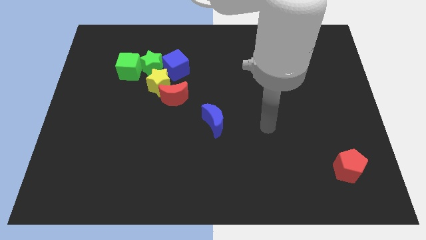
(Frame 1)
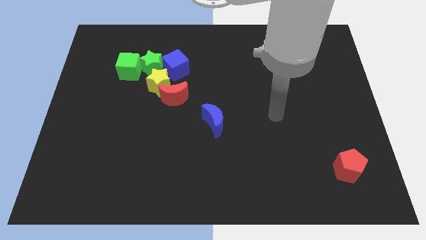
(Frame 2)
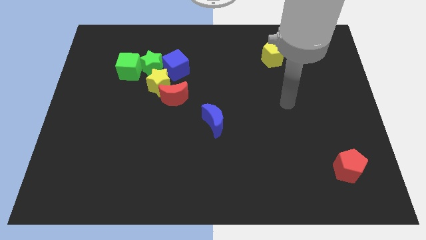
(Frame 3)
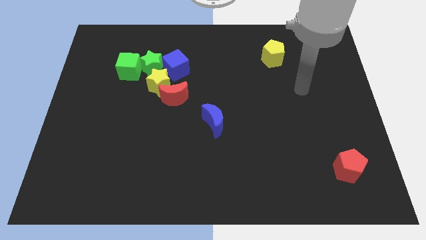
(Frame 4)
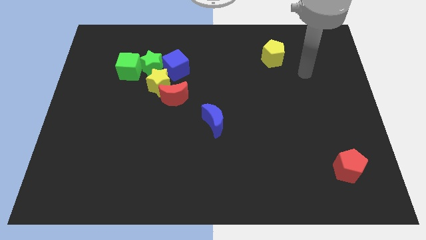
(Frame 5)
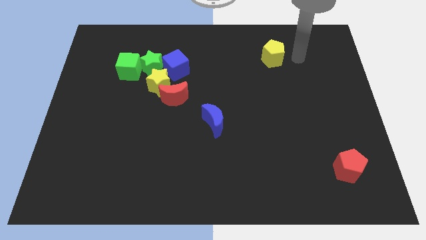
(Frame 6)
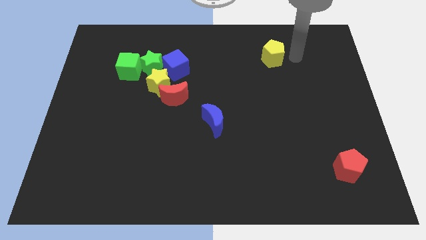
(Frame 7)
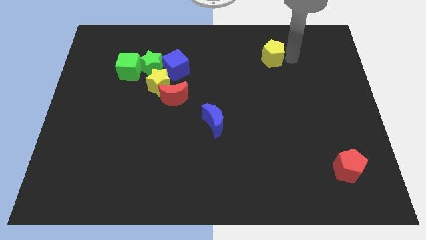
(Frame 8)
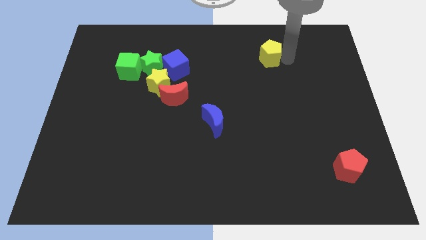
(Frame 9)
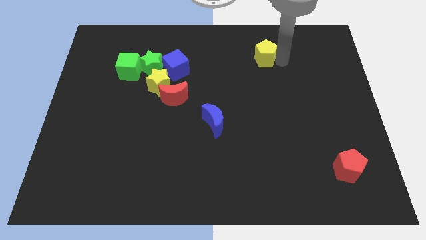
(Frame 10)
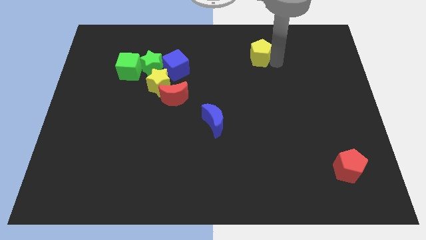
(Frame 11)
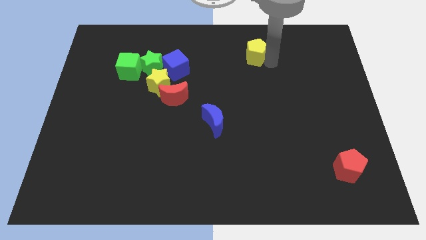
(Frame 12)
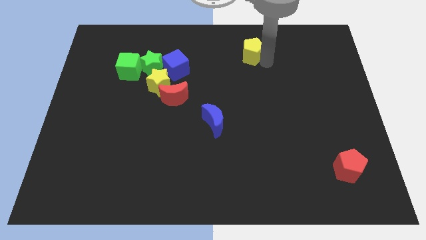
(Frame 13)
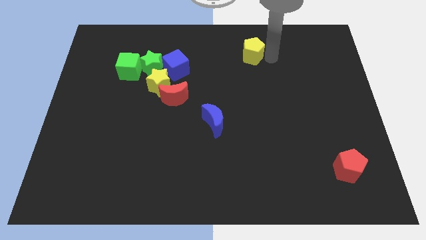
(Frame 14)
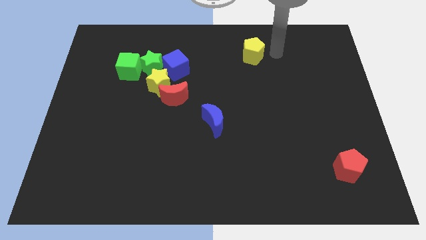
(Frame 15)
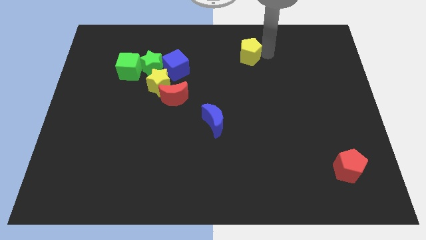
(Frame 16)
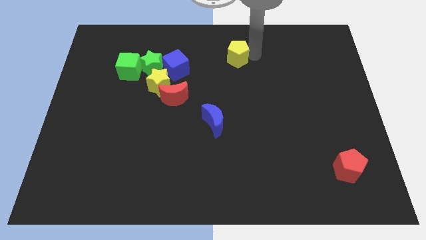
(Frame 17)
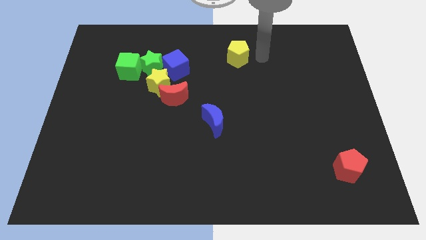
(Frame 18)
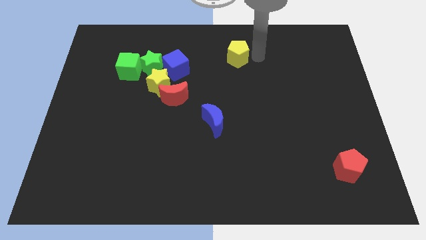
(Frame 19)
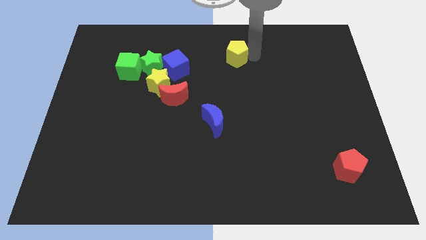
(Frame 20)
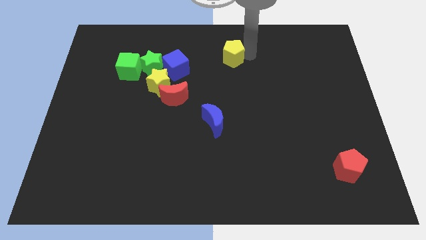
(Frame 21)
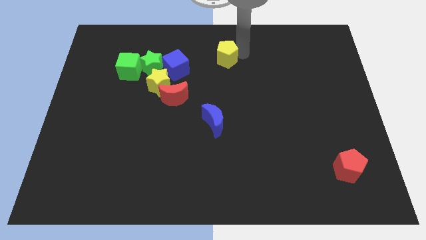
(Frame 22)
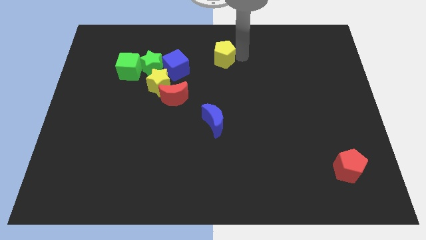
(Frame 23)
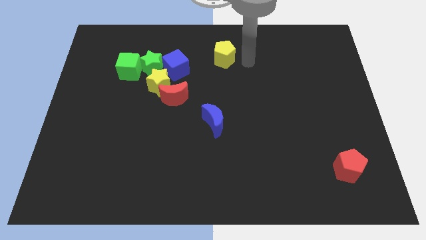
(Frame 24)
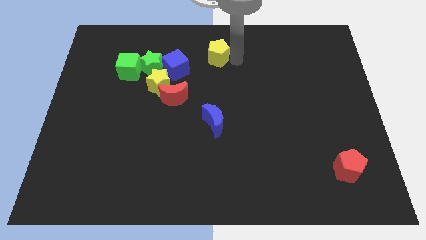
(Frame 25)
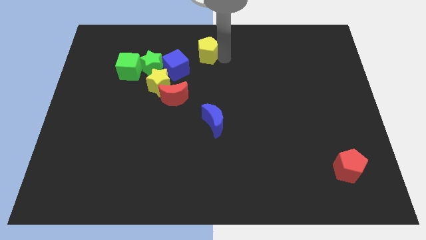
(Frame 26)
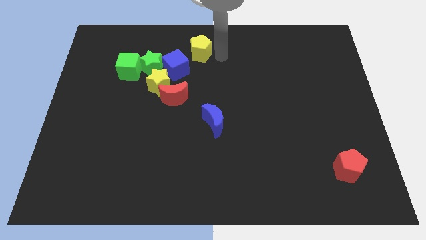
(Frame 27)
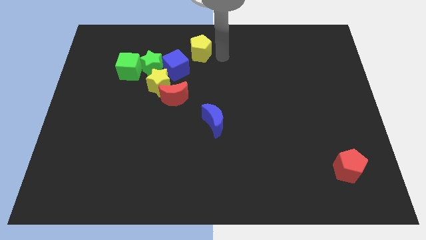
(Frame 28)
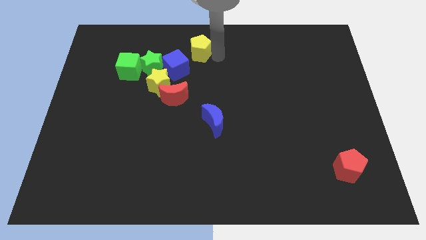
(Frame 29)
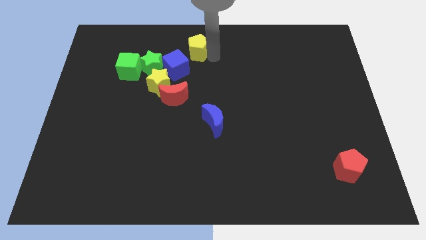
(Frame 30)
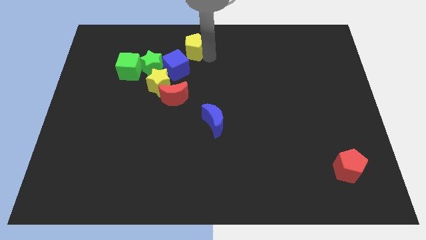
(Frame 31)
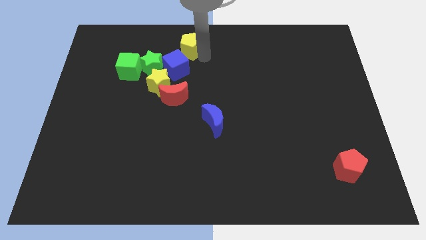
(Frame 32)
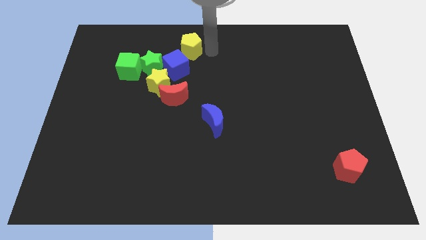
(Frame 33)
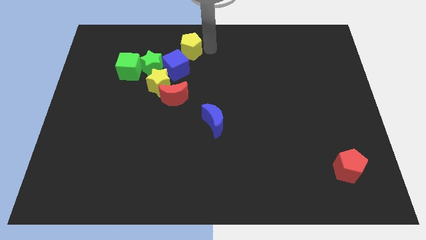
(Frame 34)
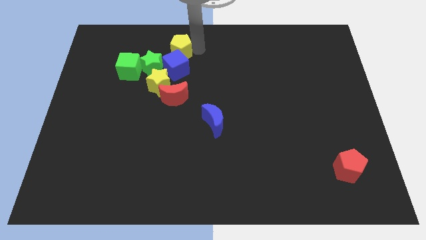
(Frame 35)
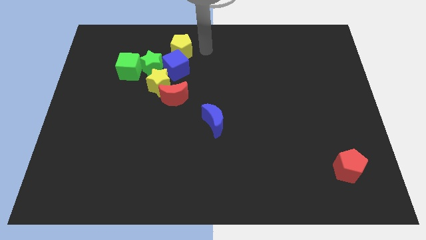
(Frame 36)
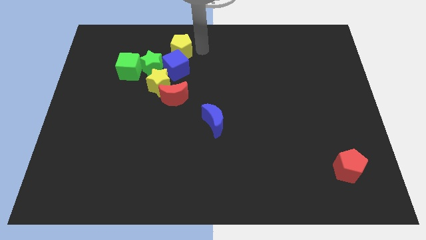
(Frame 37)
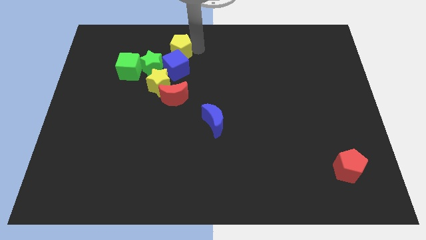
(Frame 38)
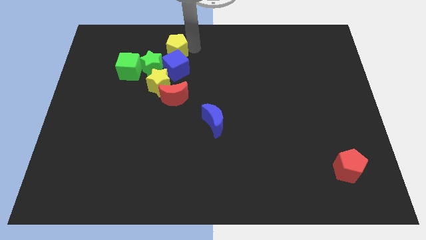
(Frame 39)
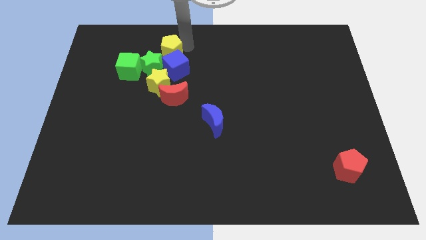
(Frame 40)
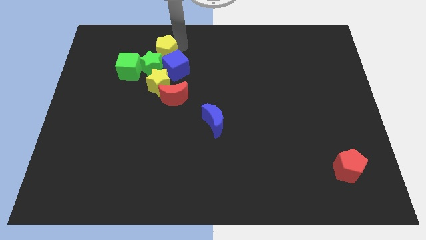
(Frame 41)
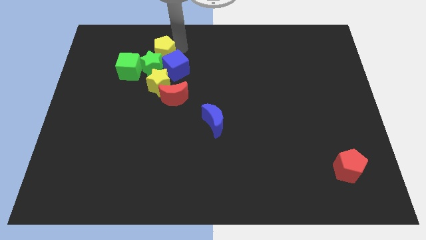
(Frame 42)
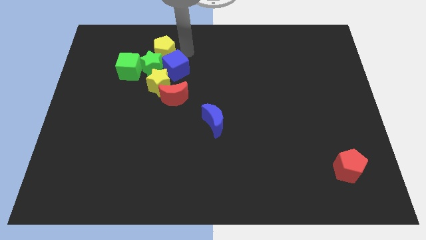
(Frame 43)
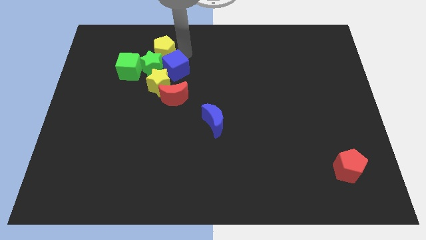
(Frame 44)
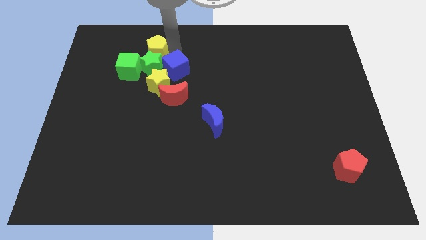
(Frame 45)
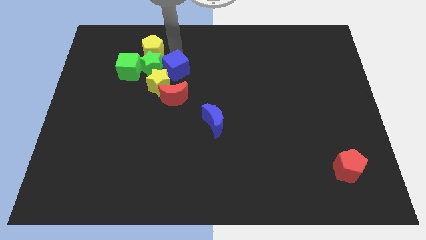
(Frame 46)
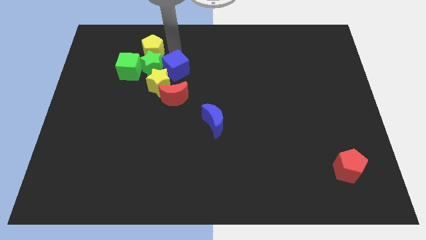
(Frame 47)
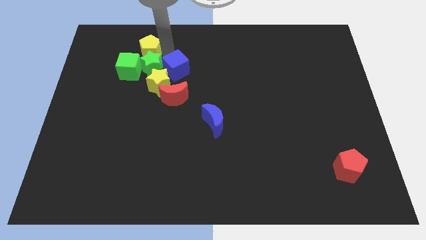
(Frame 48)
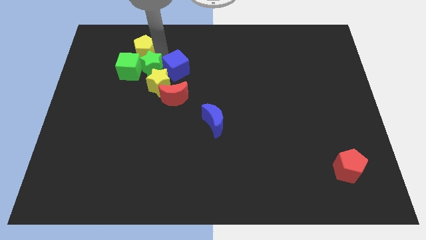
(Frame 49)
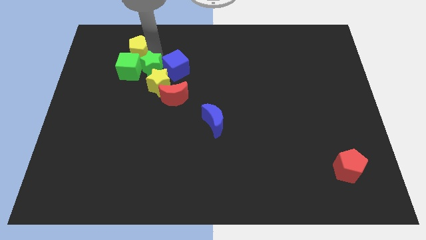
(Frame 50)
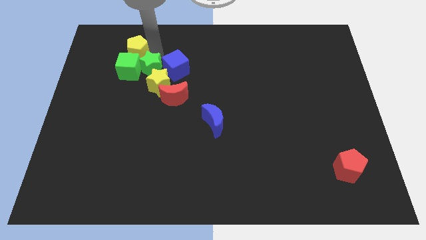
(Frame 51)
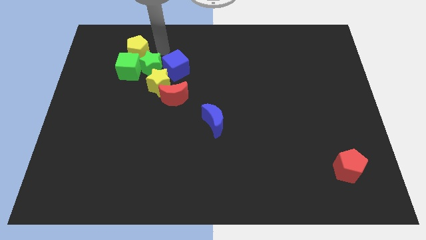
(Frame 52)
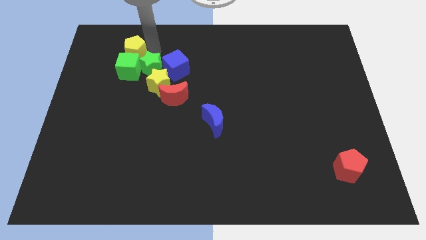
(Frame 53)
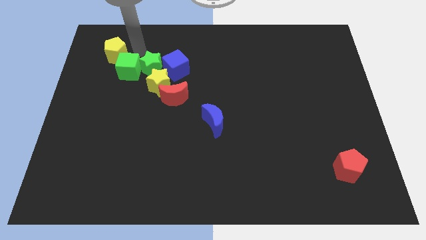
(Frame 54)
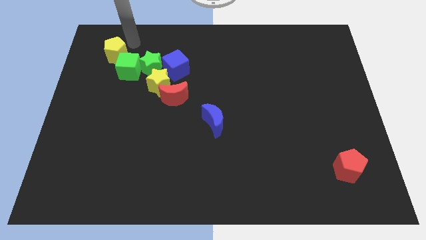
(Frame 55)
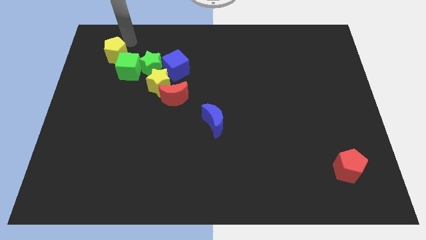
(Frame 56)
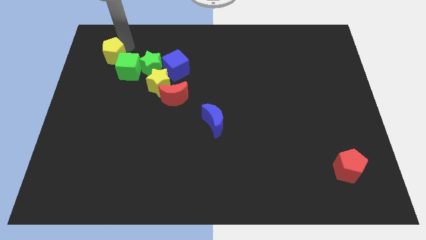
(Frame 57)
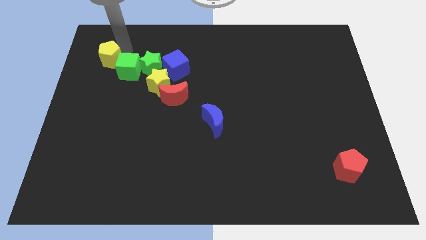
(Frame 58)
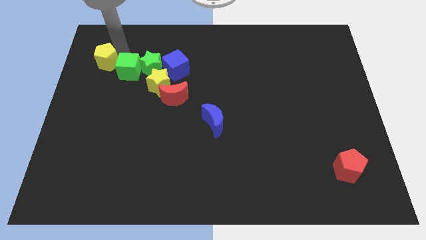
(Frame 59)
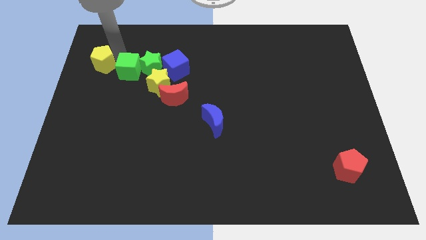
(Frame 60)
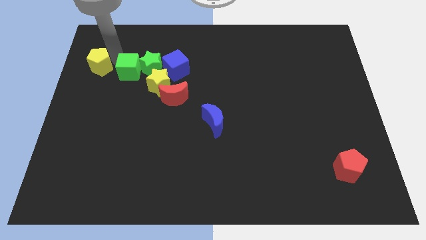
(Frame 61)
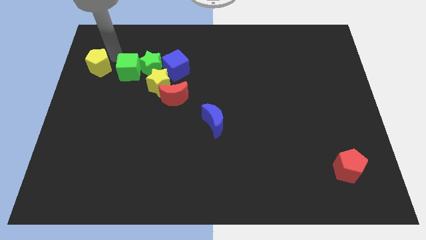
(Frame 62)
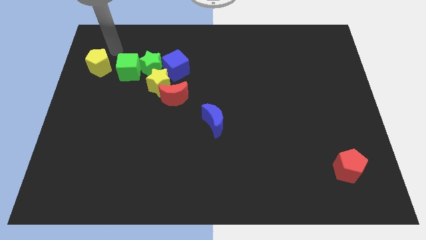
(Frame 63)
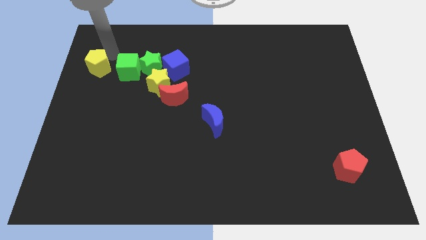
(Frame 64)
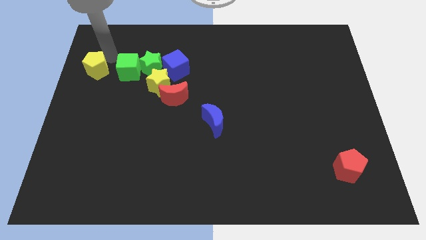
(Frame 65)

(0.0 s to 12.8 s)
push the yellow pentagon to the left side of the board

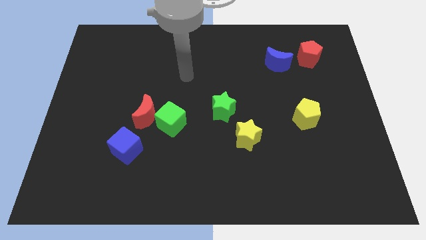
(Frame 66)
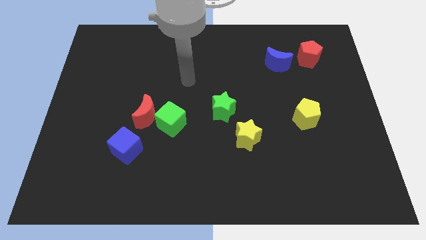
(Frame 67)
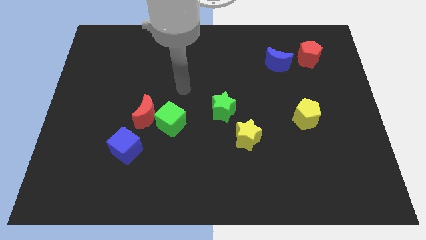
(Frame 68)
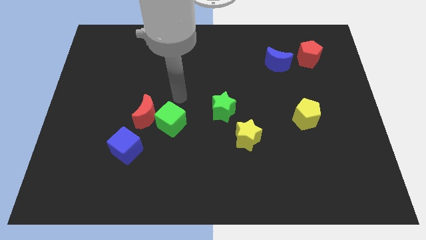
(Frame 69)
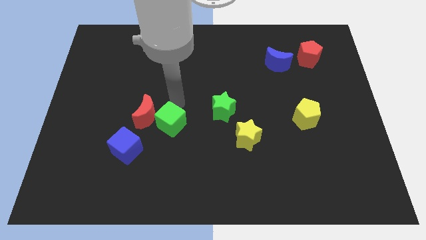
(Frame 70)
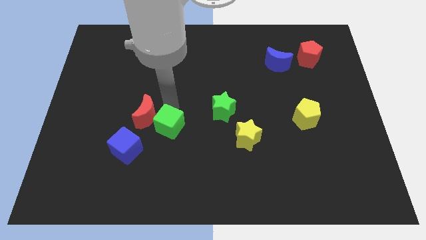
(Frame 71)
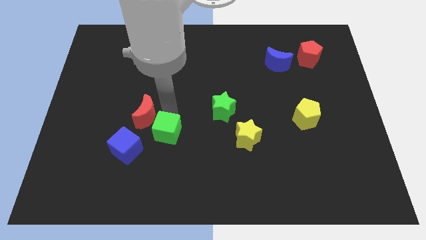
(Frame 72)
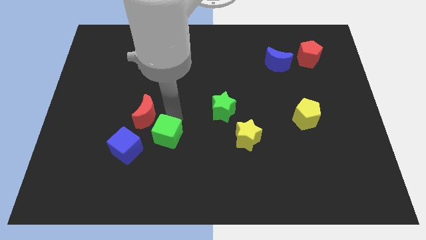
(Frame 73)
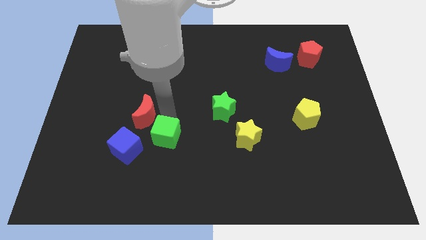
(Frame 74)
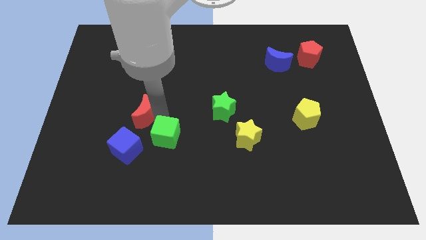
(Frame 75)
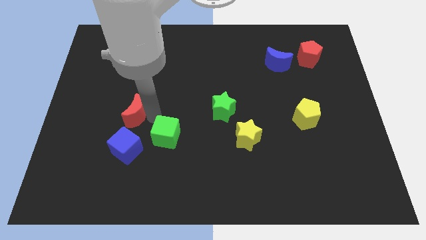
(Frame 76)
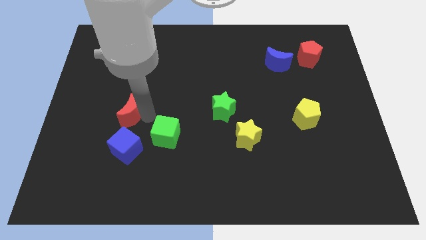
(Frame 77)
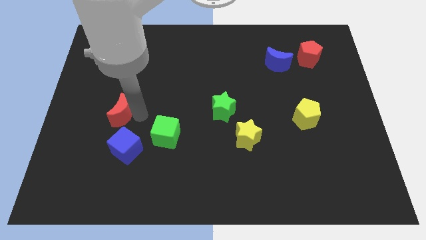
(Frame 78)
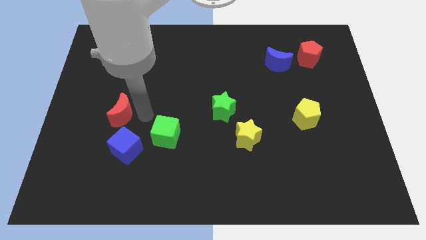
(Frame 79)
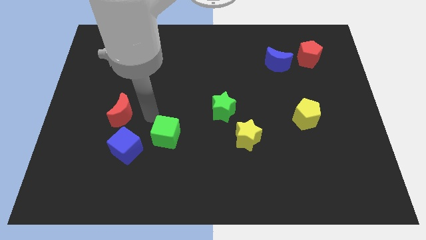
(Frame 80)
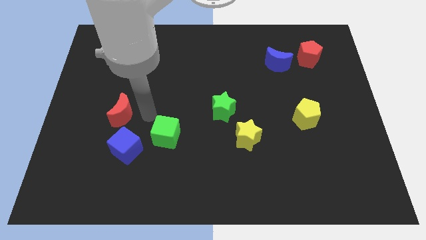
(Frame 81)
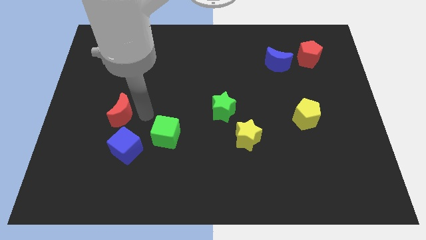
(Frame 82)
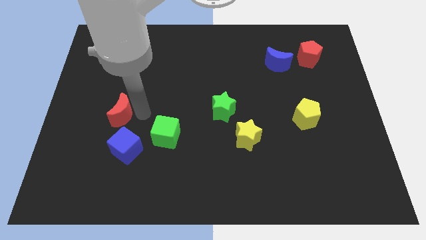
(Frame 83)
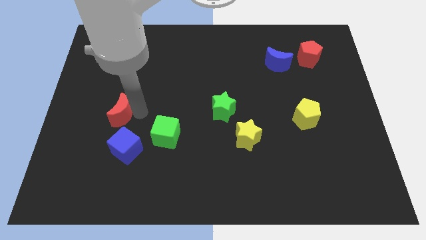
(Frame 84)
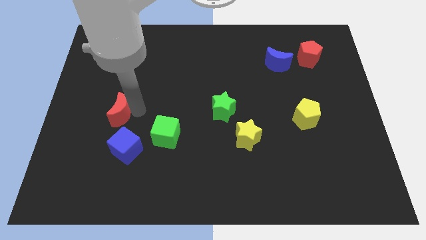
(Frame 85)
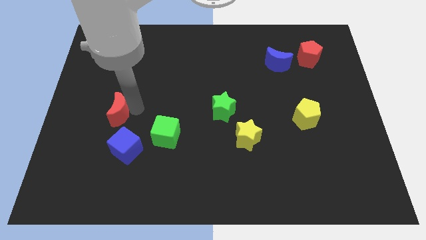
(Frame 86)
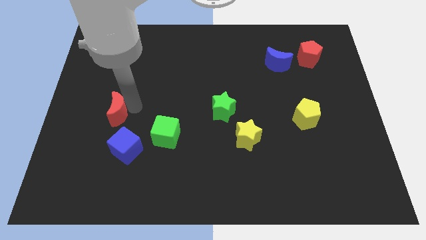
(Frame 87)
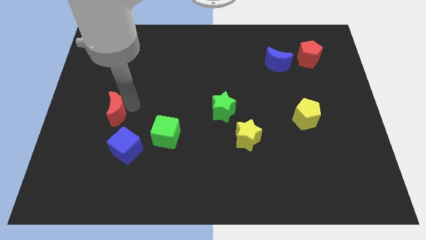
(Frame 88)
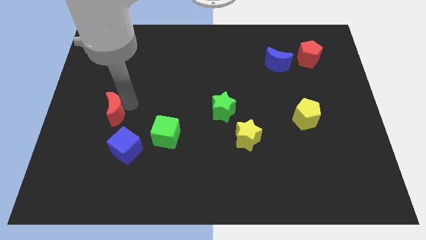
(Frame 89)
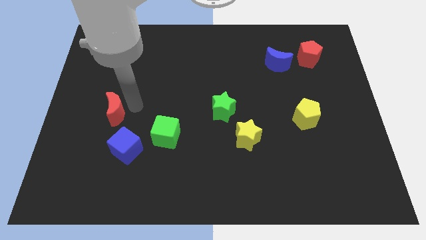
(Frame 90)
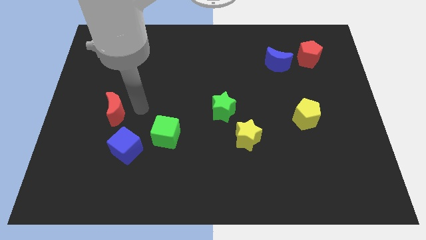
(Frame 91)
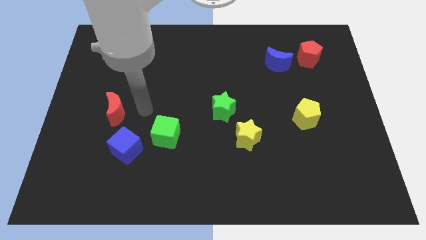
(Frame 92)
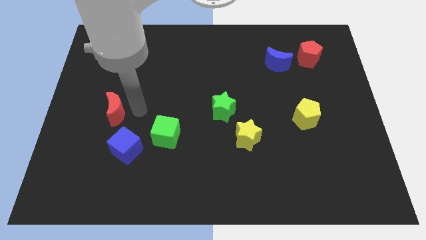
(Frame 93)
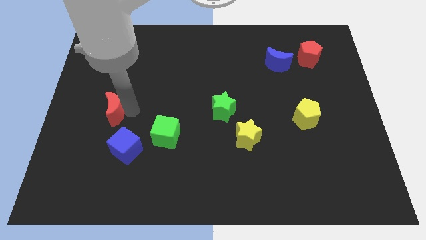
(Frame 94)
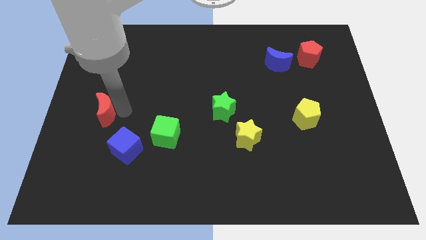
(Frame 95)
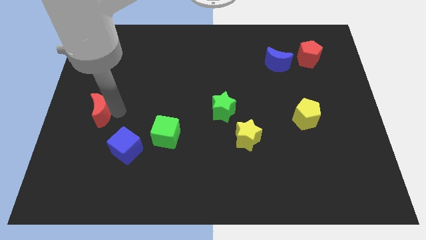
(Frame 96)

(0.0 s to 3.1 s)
slide the red moon to the center left
